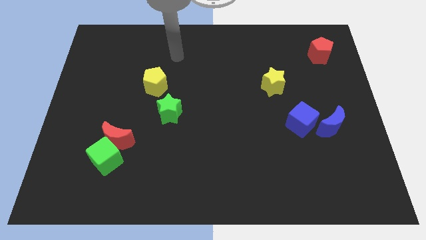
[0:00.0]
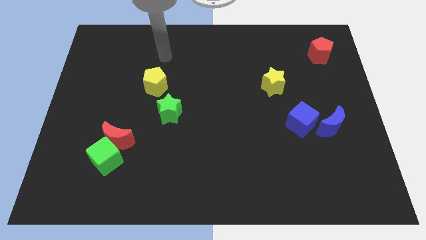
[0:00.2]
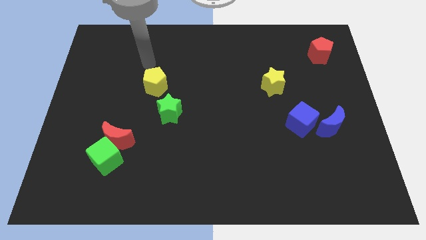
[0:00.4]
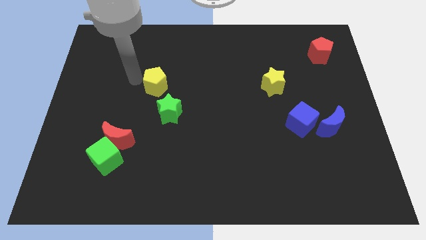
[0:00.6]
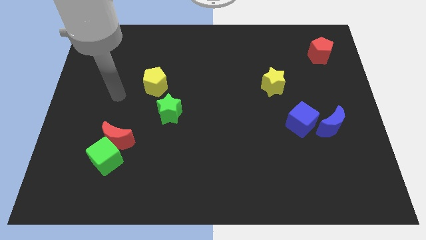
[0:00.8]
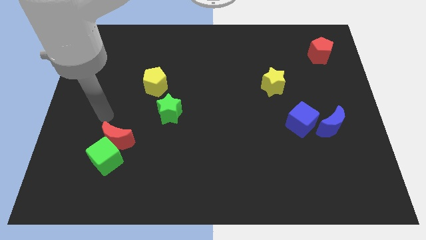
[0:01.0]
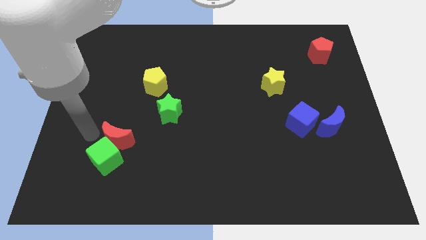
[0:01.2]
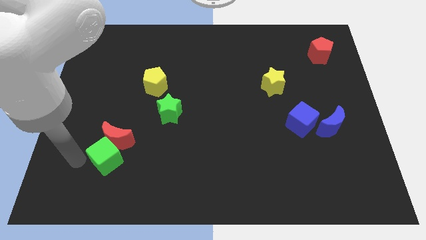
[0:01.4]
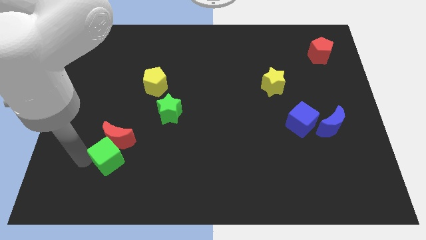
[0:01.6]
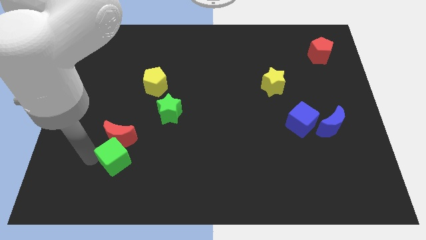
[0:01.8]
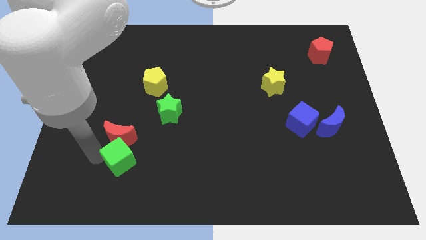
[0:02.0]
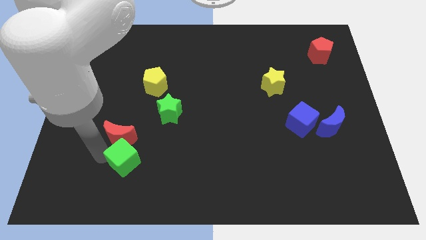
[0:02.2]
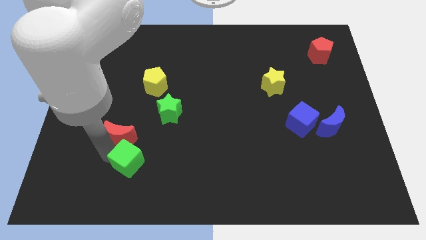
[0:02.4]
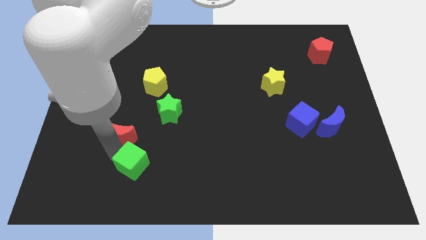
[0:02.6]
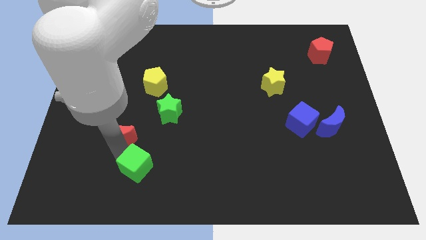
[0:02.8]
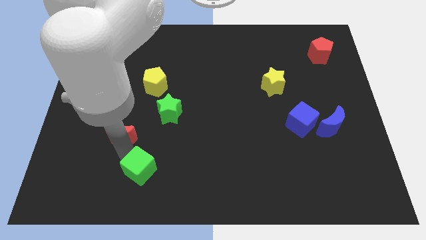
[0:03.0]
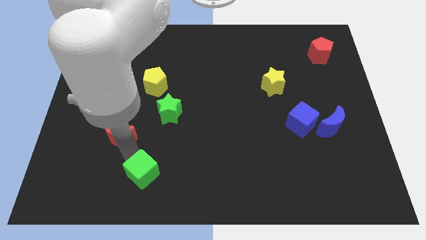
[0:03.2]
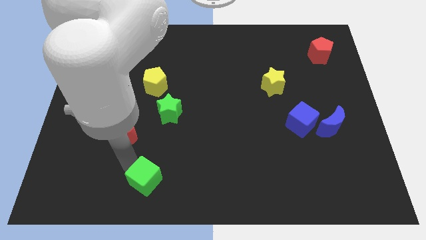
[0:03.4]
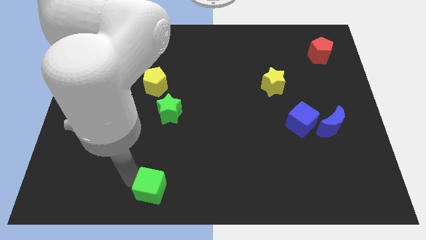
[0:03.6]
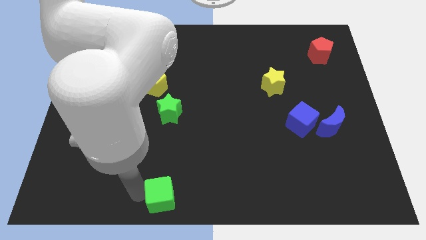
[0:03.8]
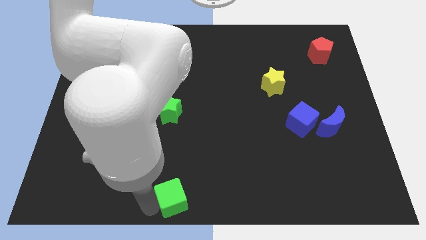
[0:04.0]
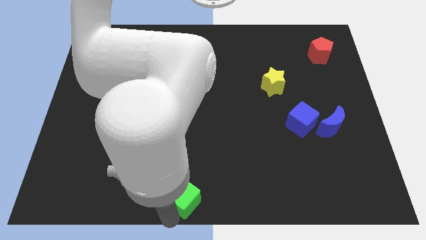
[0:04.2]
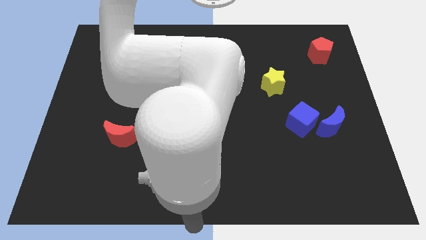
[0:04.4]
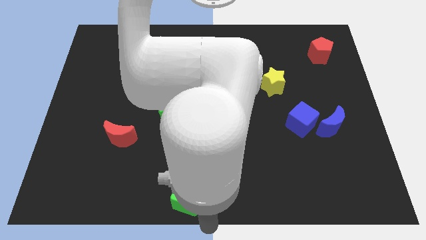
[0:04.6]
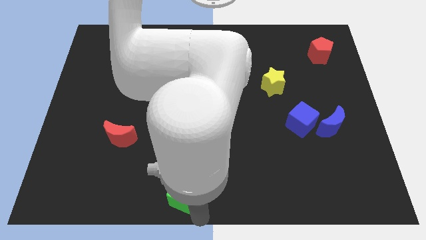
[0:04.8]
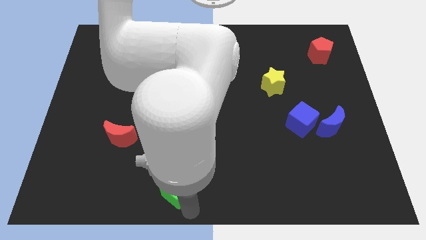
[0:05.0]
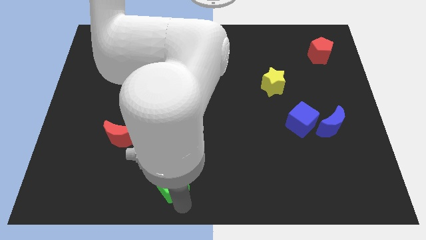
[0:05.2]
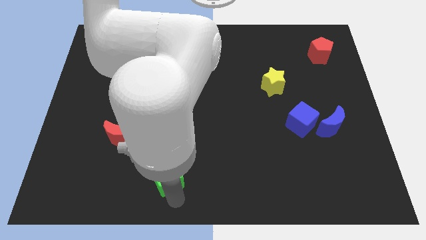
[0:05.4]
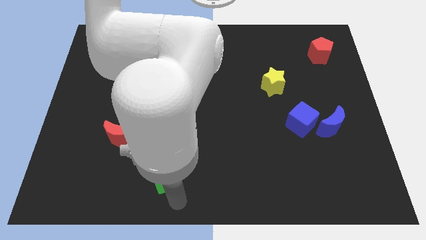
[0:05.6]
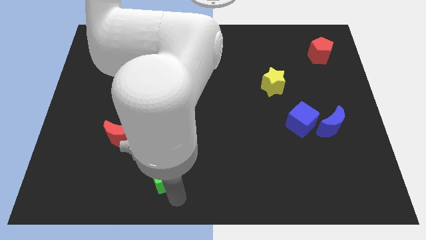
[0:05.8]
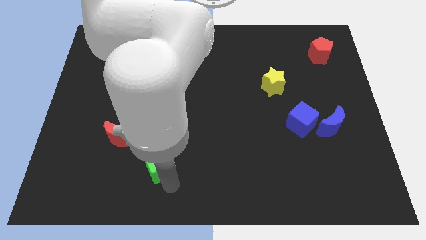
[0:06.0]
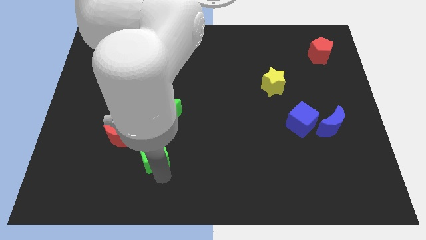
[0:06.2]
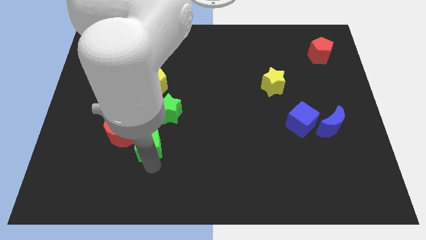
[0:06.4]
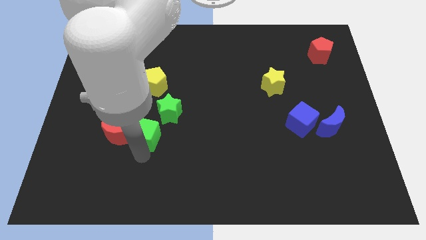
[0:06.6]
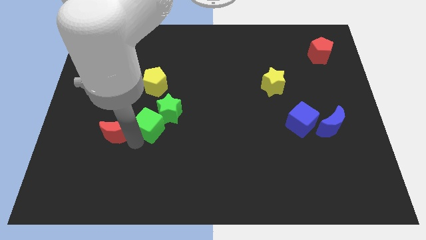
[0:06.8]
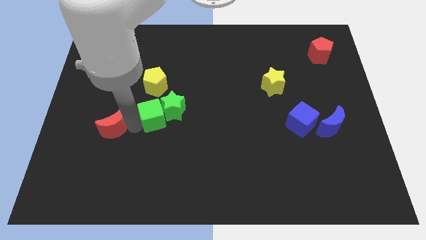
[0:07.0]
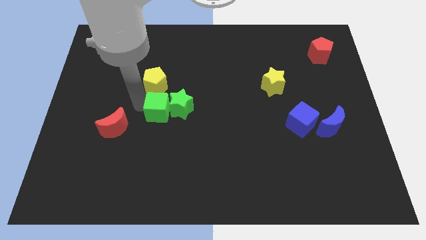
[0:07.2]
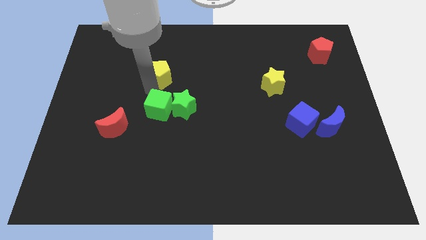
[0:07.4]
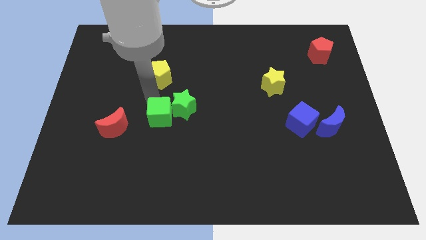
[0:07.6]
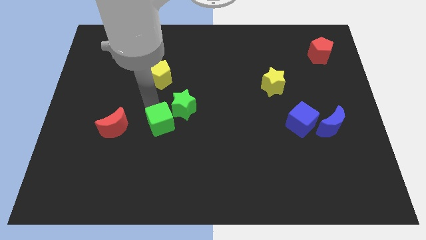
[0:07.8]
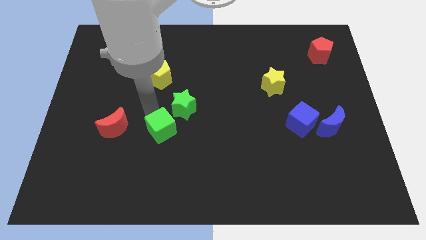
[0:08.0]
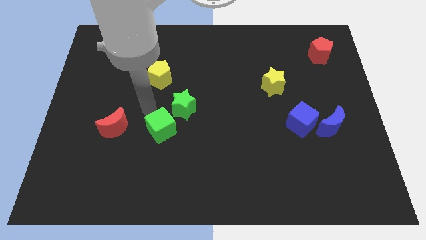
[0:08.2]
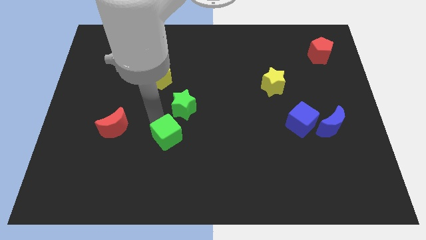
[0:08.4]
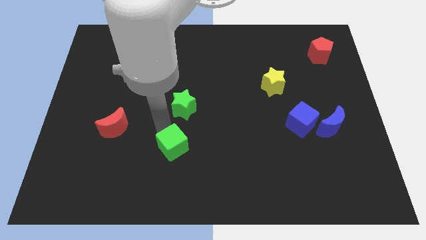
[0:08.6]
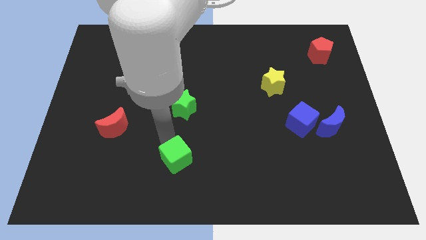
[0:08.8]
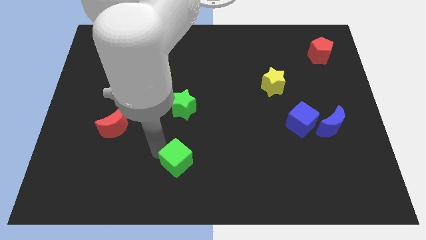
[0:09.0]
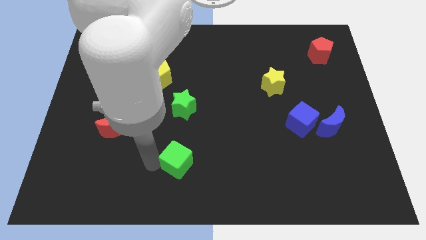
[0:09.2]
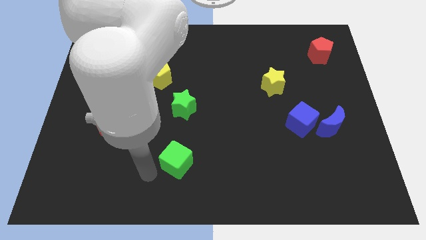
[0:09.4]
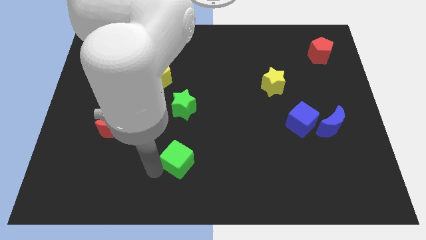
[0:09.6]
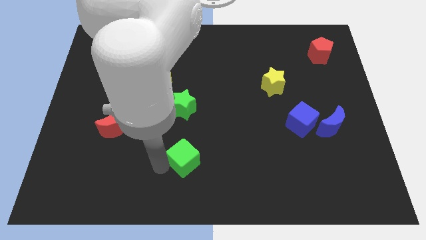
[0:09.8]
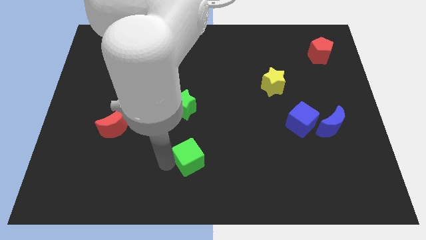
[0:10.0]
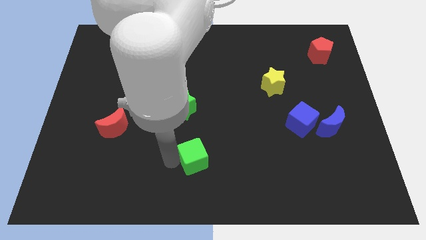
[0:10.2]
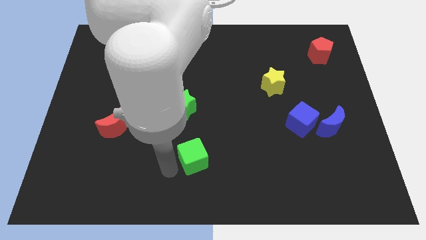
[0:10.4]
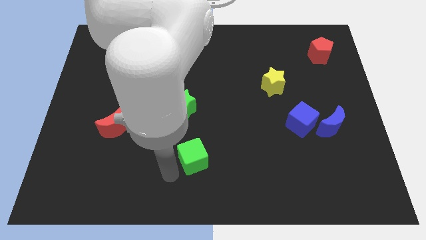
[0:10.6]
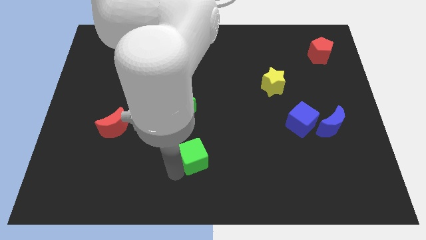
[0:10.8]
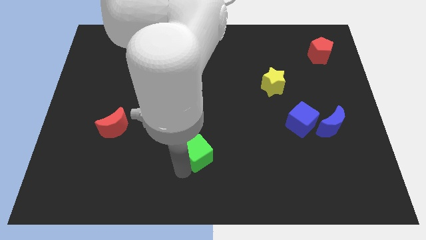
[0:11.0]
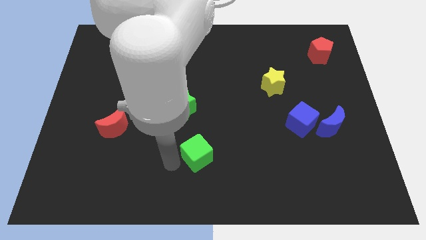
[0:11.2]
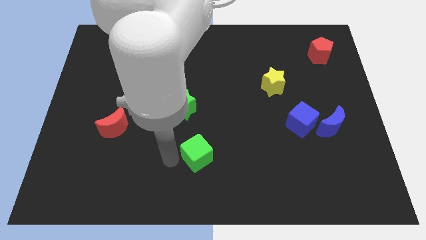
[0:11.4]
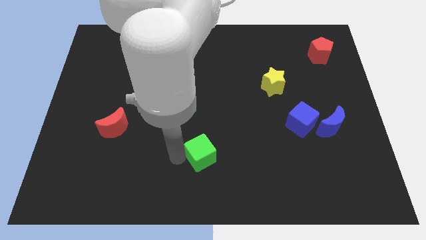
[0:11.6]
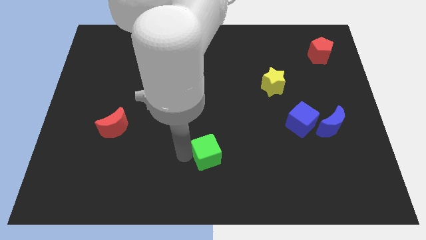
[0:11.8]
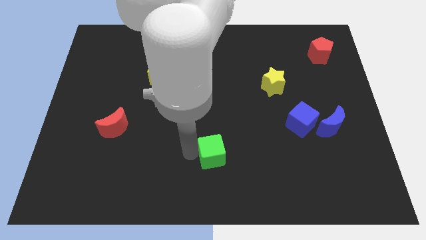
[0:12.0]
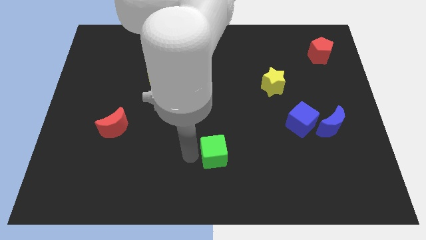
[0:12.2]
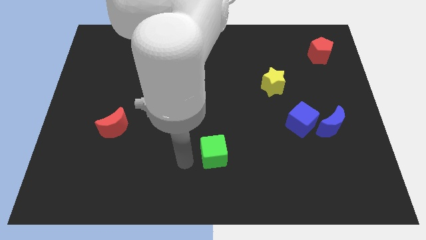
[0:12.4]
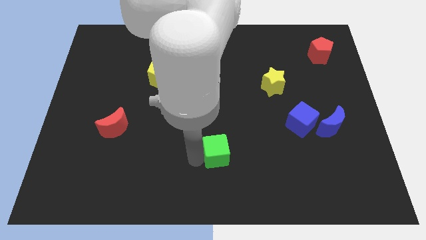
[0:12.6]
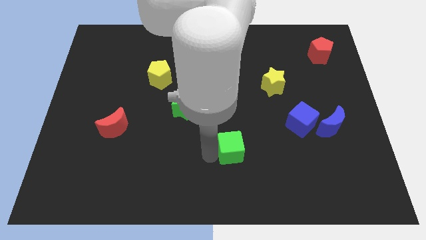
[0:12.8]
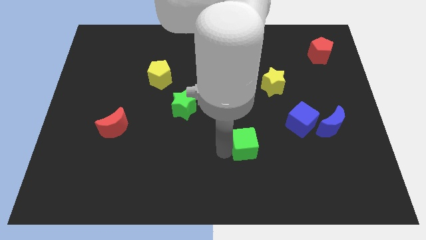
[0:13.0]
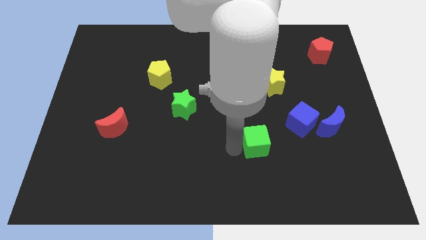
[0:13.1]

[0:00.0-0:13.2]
put the green cube diagonally down and to the left of the blue cube
